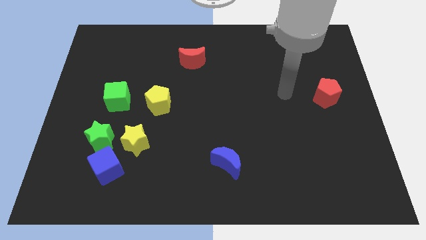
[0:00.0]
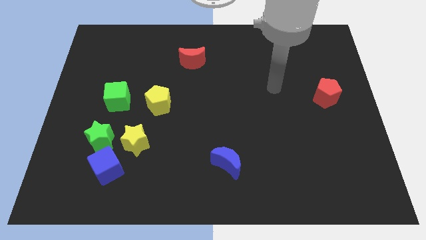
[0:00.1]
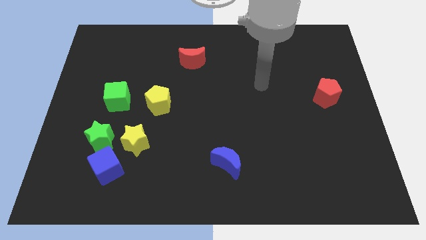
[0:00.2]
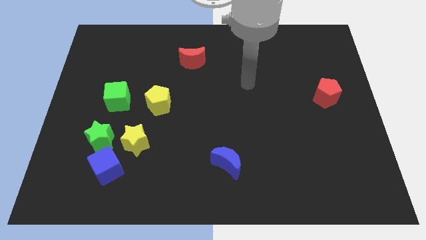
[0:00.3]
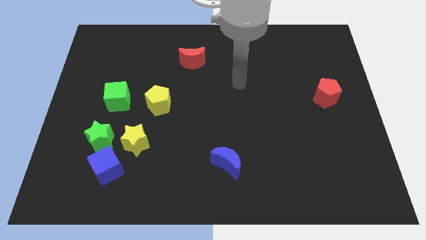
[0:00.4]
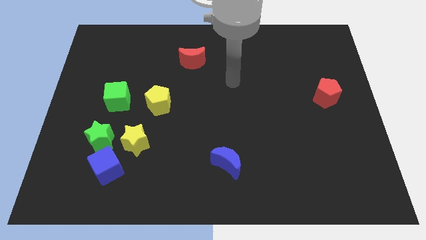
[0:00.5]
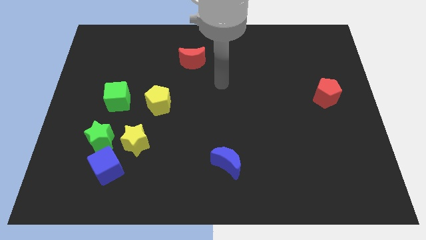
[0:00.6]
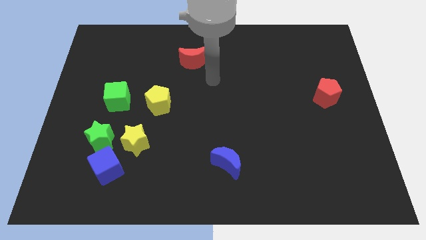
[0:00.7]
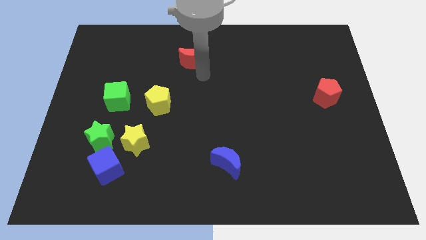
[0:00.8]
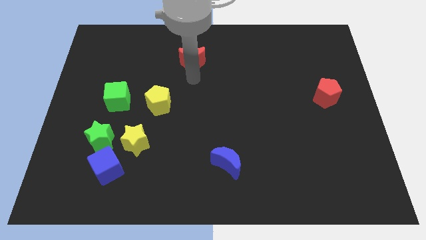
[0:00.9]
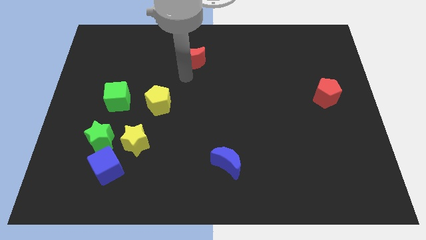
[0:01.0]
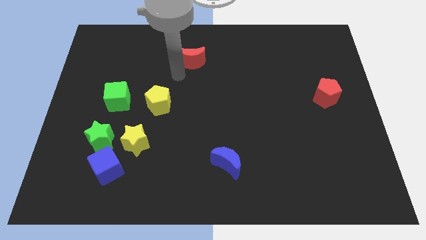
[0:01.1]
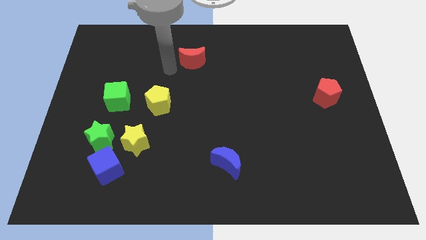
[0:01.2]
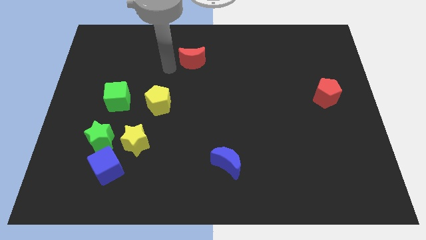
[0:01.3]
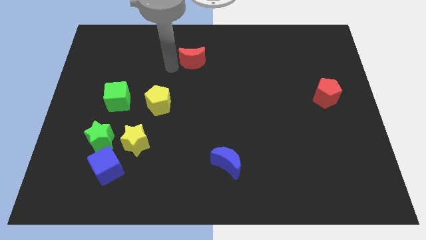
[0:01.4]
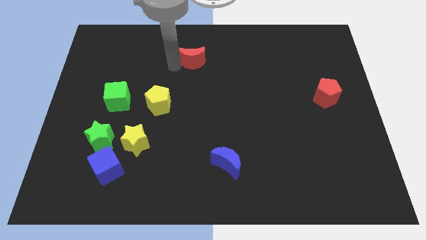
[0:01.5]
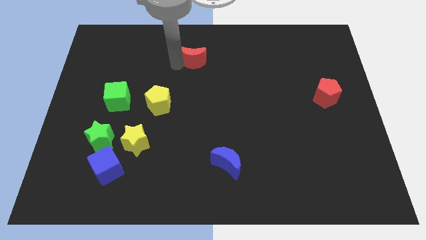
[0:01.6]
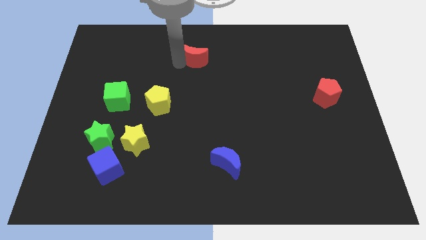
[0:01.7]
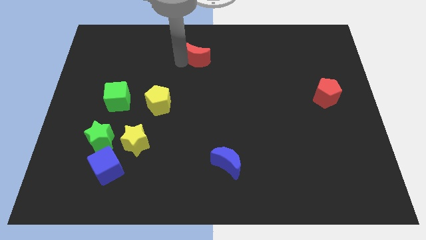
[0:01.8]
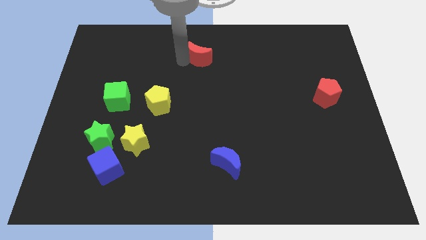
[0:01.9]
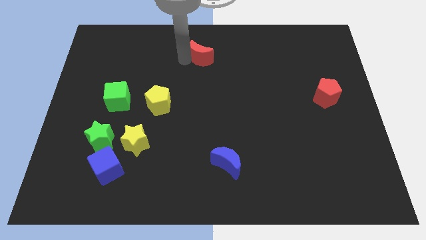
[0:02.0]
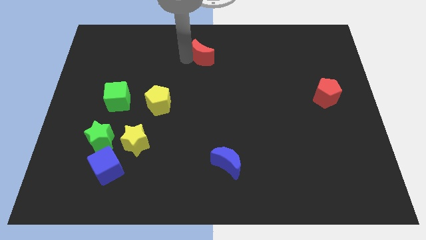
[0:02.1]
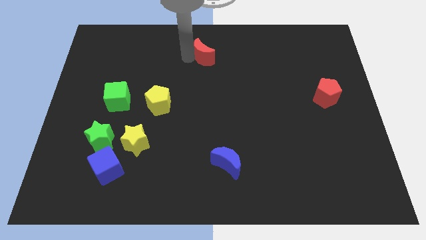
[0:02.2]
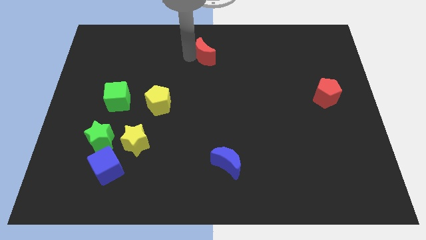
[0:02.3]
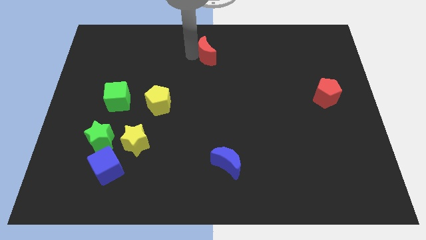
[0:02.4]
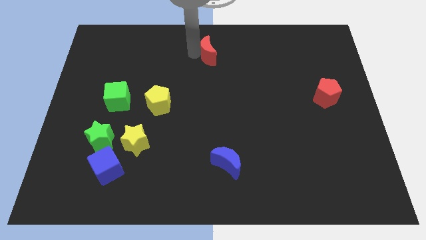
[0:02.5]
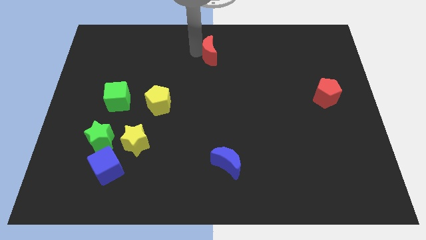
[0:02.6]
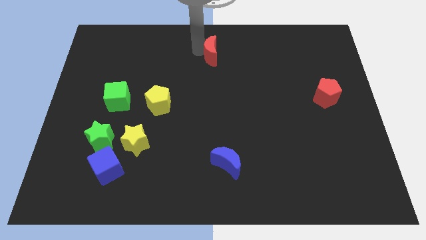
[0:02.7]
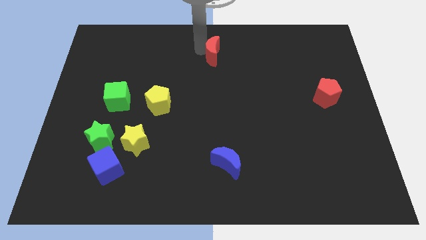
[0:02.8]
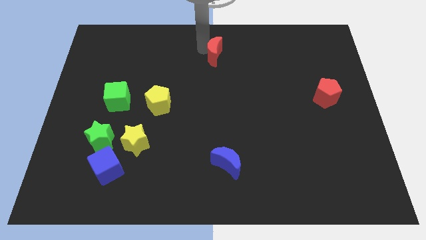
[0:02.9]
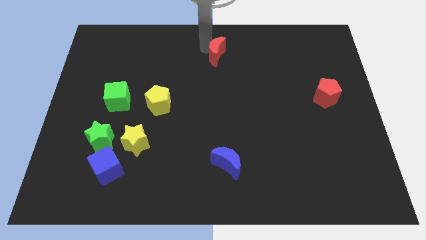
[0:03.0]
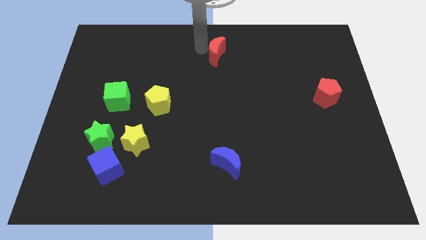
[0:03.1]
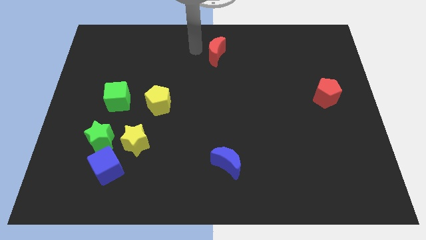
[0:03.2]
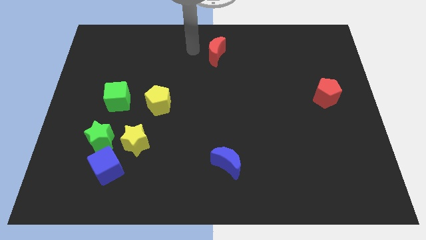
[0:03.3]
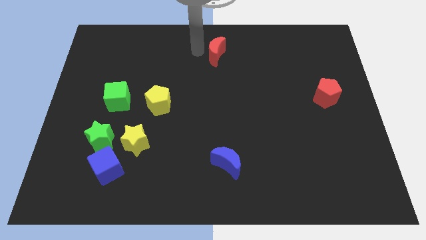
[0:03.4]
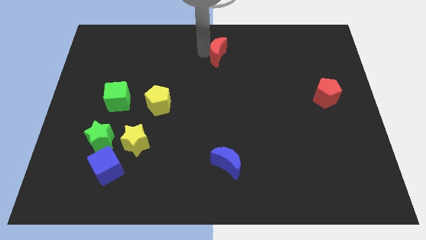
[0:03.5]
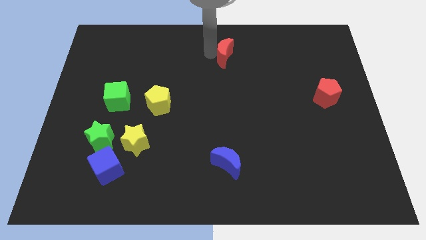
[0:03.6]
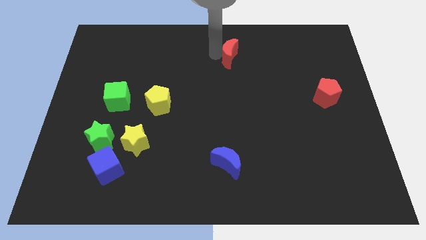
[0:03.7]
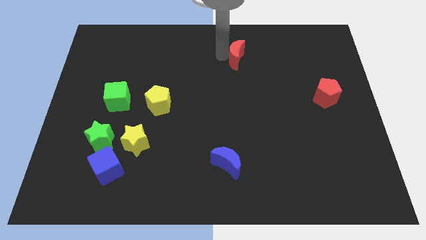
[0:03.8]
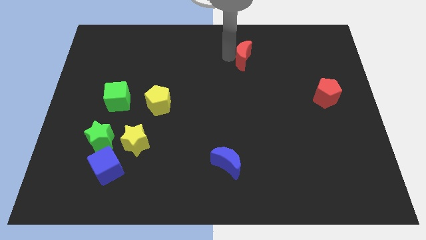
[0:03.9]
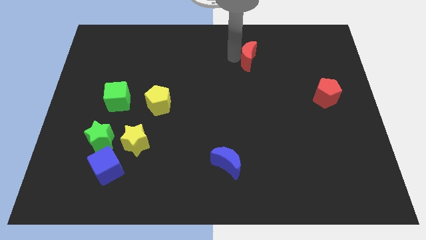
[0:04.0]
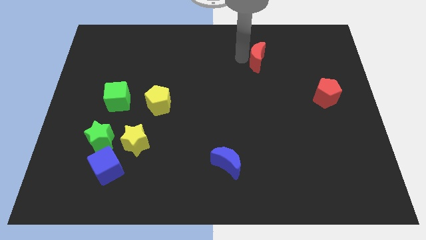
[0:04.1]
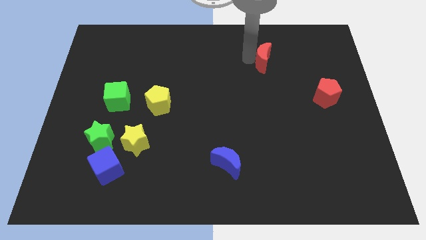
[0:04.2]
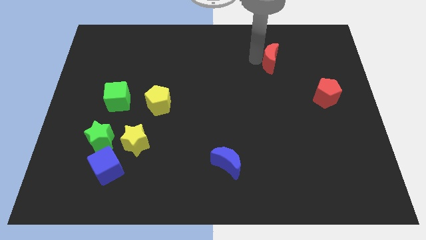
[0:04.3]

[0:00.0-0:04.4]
push the red moon right

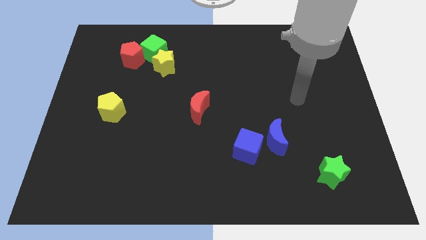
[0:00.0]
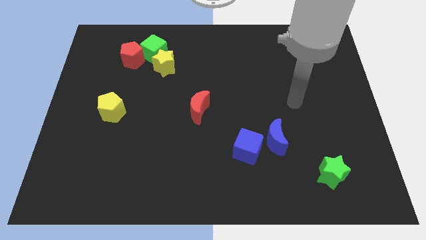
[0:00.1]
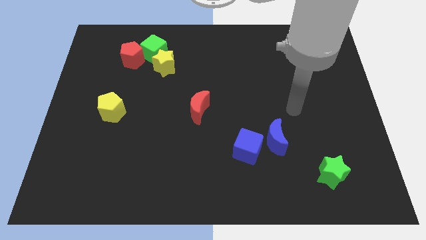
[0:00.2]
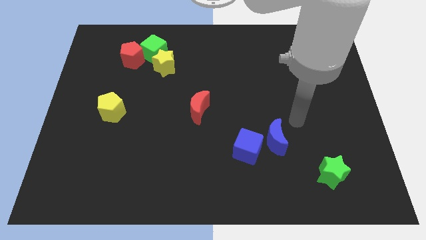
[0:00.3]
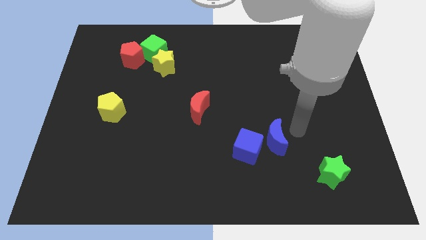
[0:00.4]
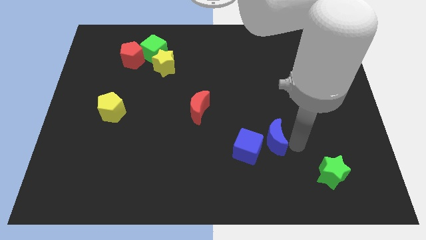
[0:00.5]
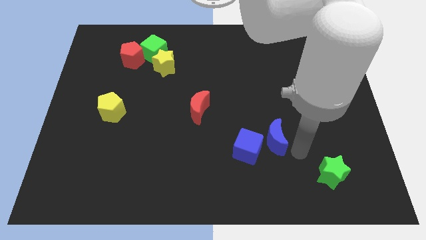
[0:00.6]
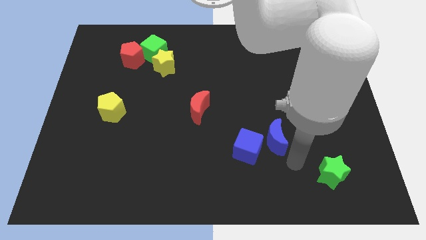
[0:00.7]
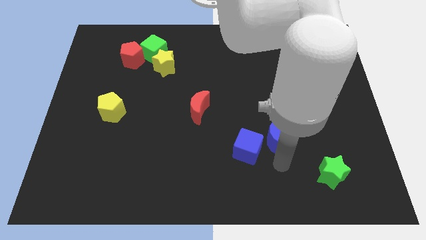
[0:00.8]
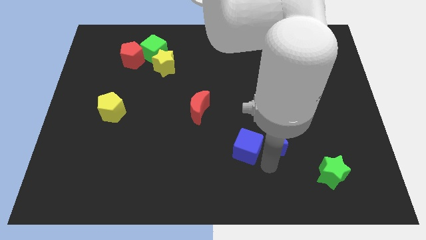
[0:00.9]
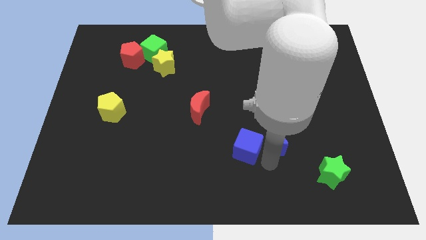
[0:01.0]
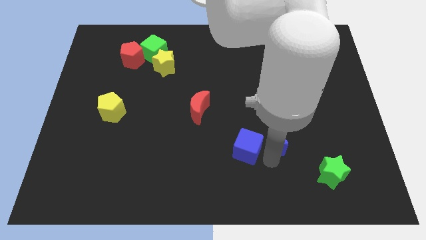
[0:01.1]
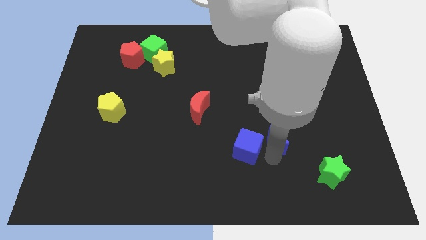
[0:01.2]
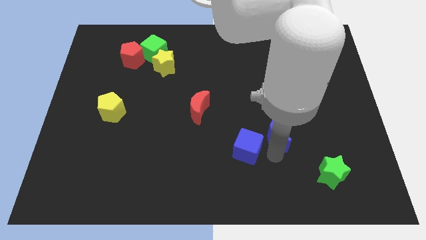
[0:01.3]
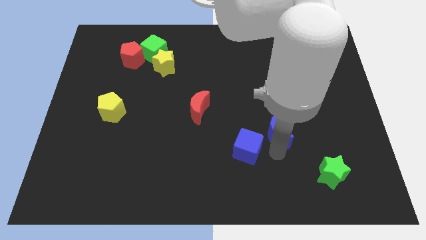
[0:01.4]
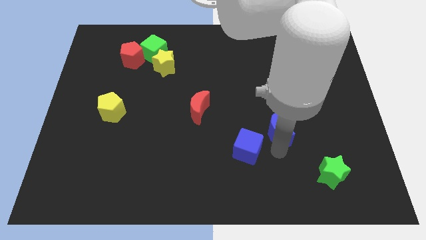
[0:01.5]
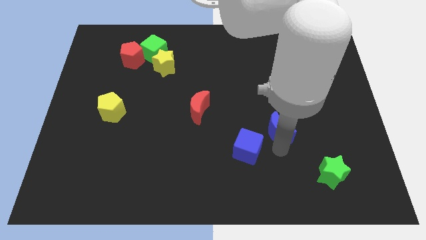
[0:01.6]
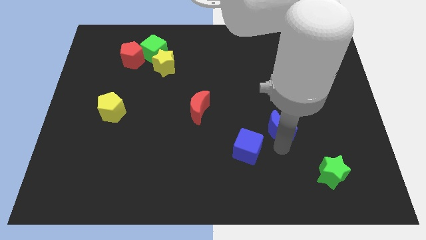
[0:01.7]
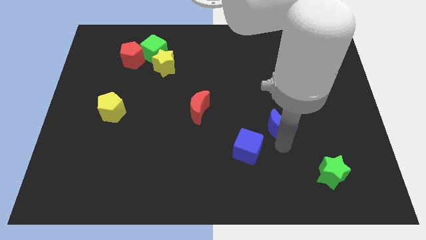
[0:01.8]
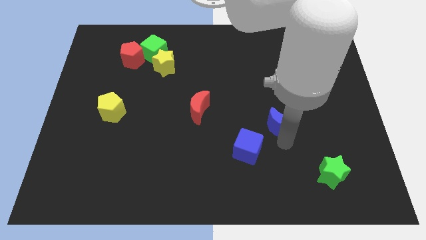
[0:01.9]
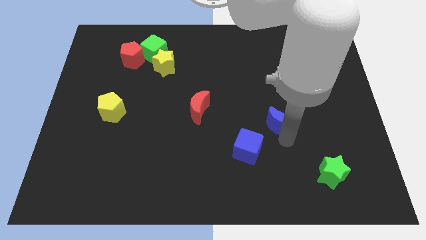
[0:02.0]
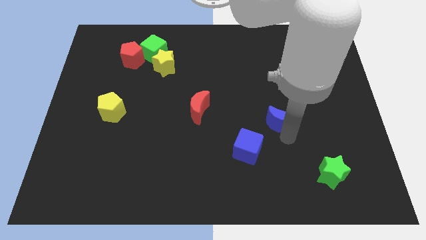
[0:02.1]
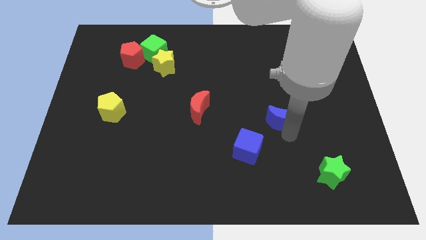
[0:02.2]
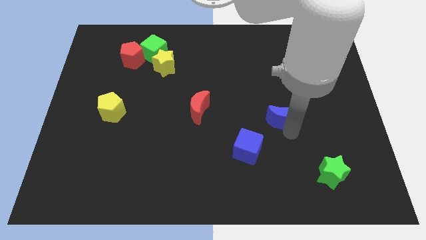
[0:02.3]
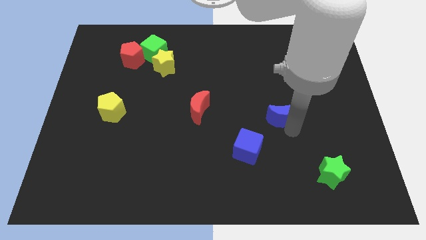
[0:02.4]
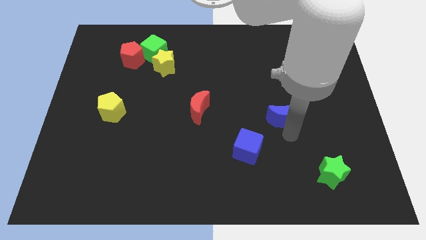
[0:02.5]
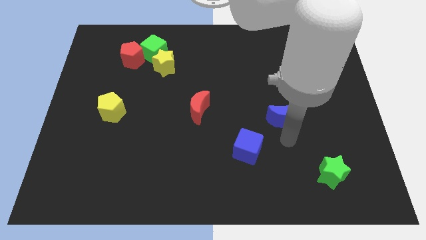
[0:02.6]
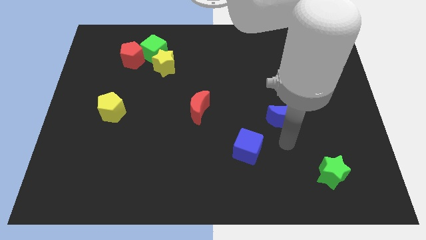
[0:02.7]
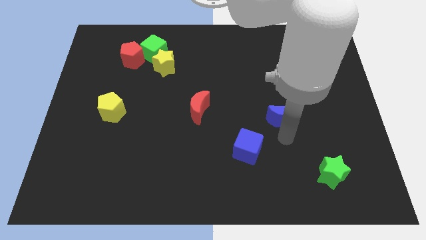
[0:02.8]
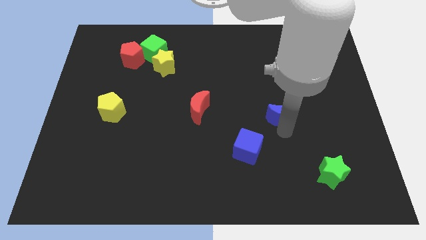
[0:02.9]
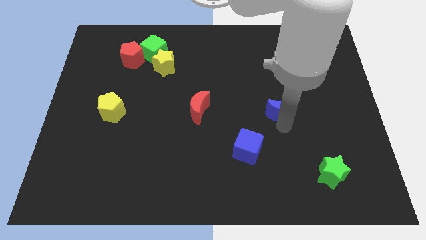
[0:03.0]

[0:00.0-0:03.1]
push the blue moon a little upwards

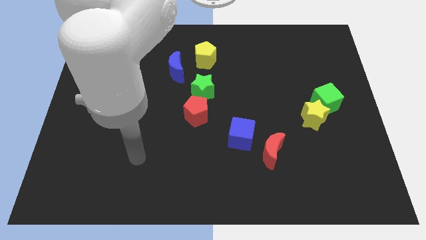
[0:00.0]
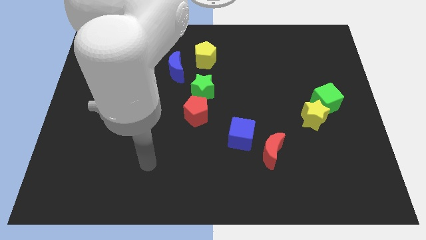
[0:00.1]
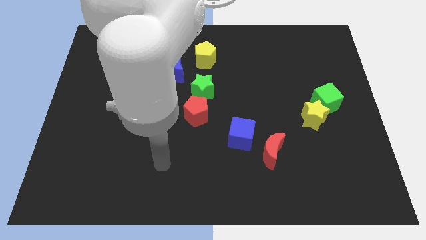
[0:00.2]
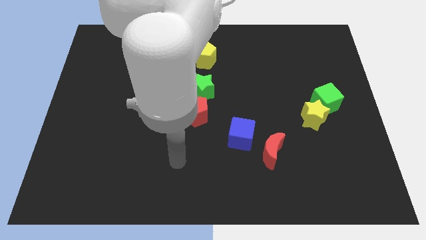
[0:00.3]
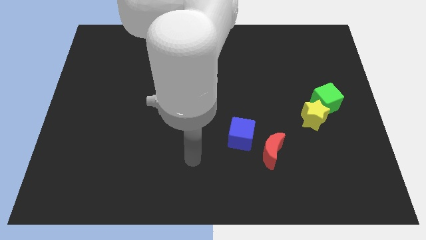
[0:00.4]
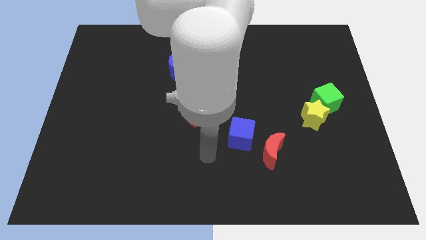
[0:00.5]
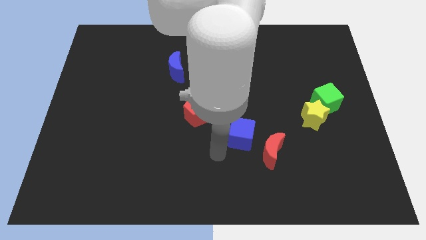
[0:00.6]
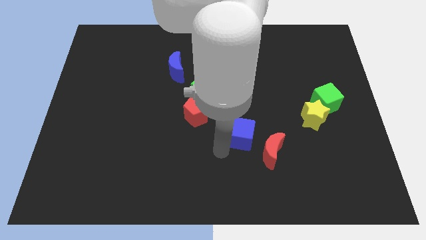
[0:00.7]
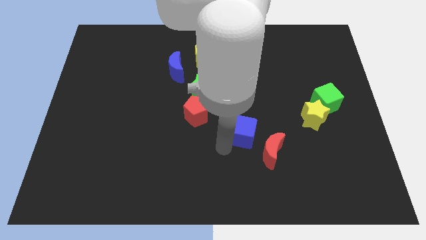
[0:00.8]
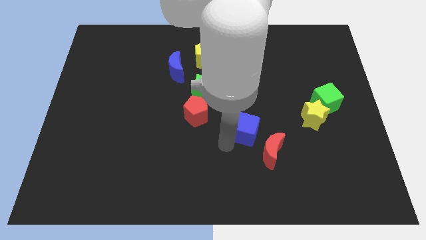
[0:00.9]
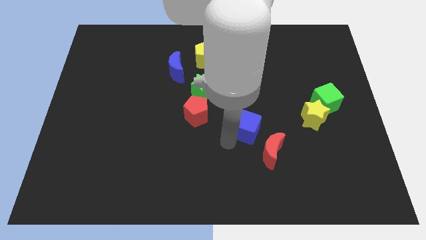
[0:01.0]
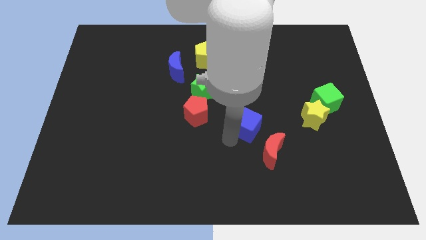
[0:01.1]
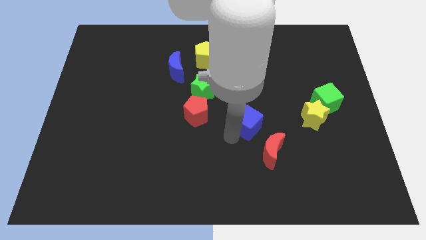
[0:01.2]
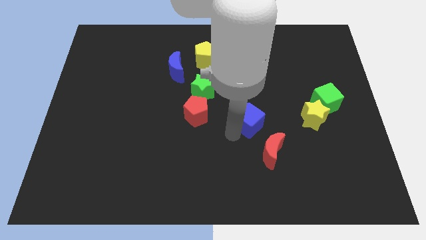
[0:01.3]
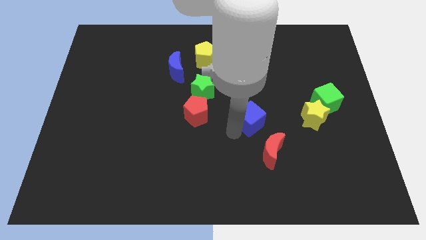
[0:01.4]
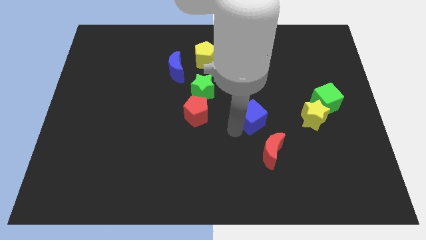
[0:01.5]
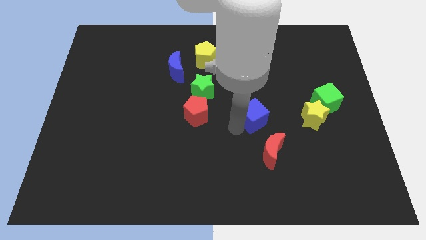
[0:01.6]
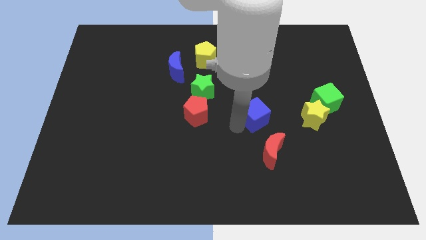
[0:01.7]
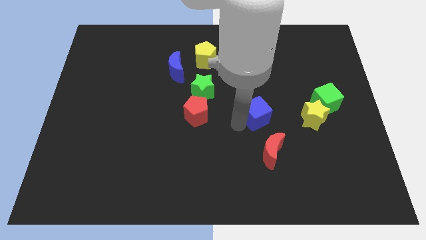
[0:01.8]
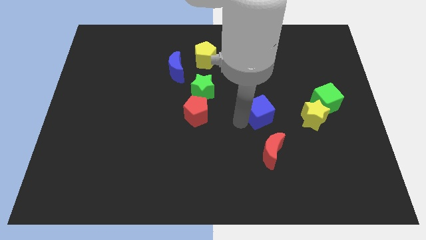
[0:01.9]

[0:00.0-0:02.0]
slide the blue cube slightly upwards and to the right diagonally
